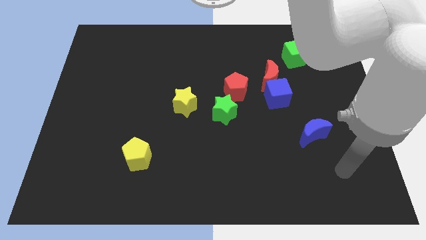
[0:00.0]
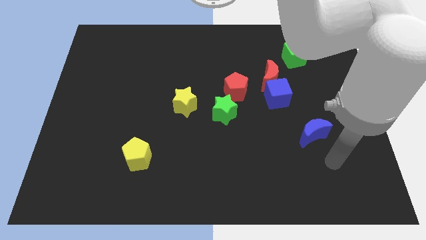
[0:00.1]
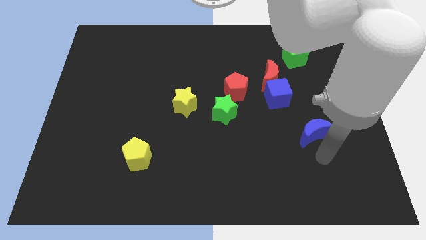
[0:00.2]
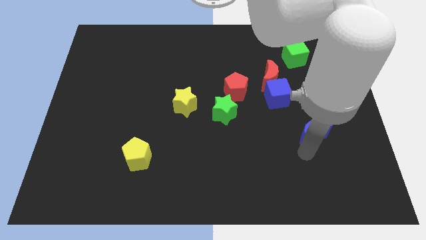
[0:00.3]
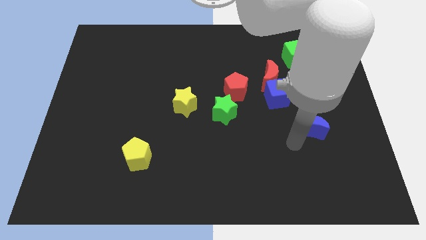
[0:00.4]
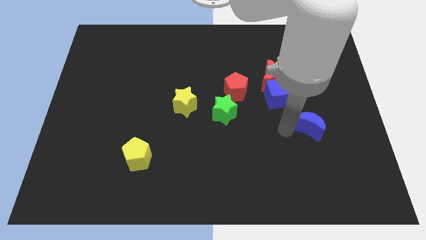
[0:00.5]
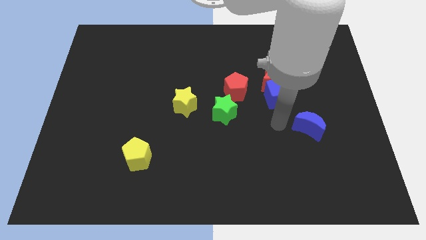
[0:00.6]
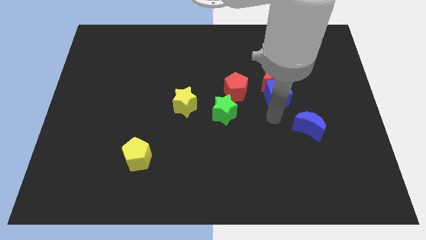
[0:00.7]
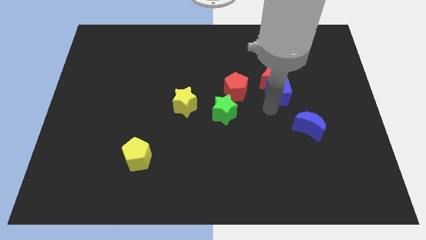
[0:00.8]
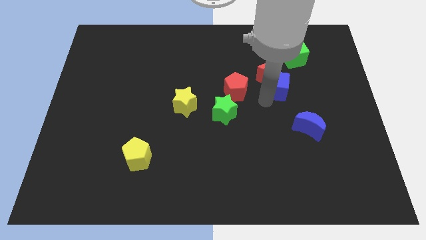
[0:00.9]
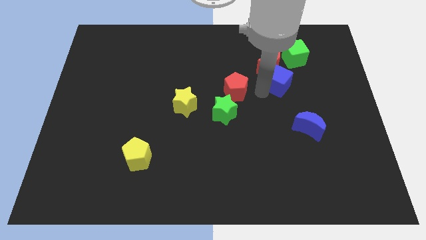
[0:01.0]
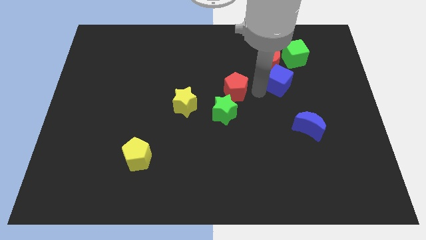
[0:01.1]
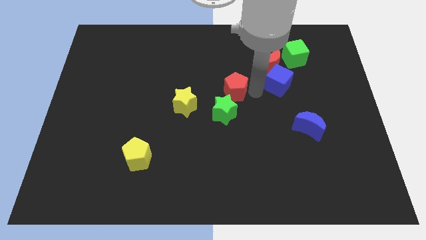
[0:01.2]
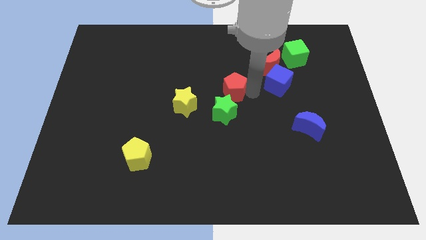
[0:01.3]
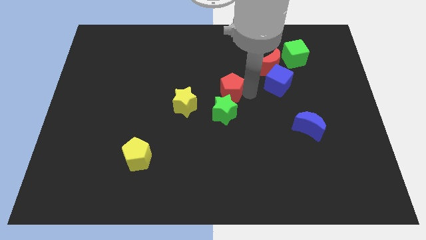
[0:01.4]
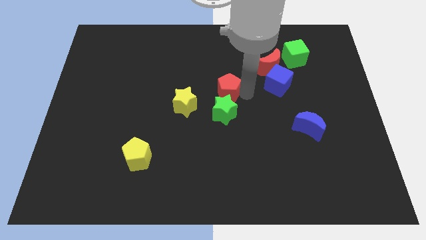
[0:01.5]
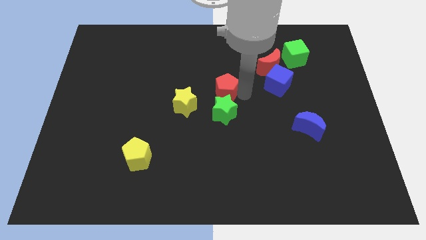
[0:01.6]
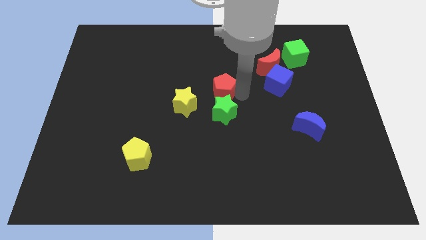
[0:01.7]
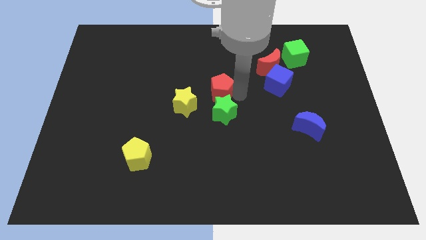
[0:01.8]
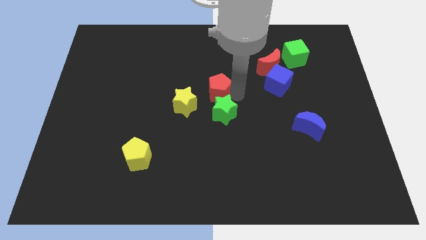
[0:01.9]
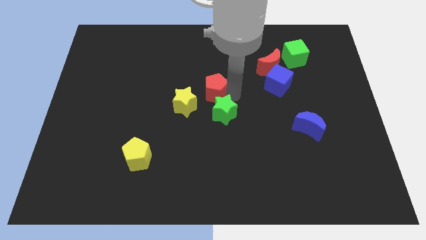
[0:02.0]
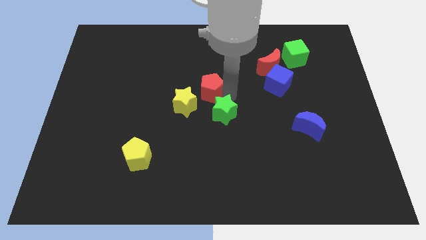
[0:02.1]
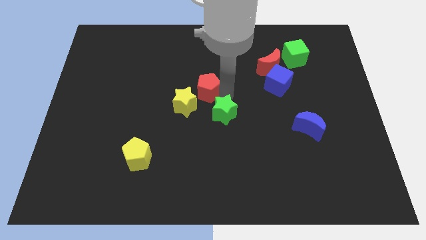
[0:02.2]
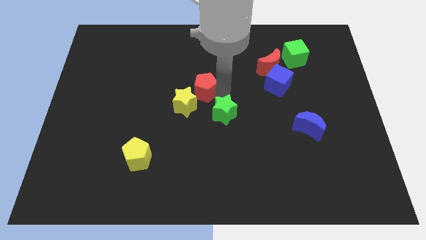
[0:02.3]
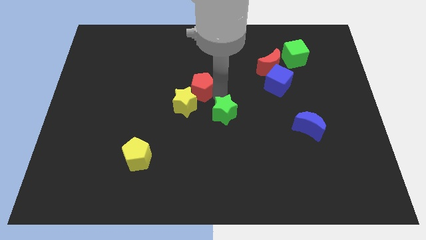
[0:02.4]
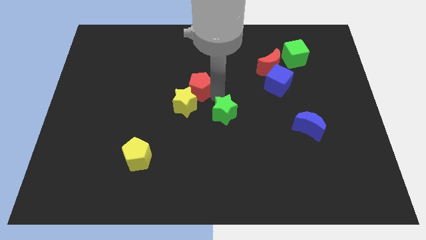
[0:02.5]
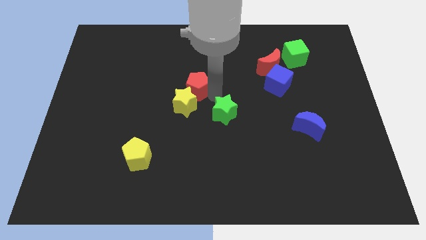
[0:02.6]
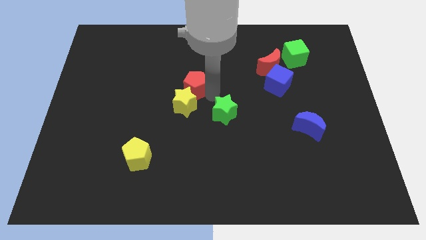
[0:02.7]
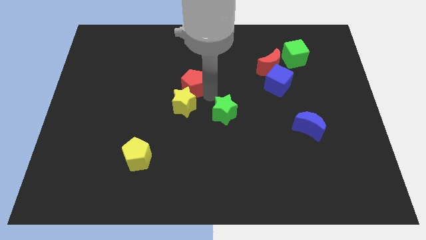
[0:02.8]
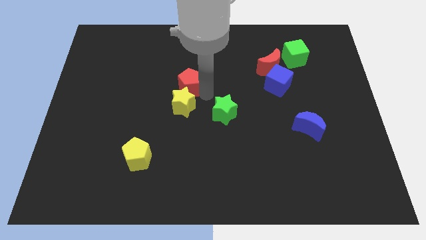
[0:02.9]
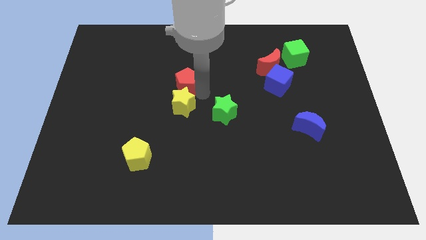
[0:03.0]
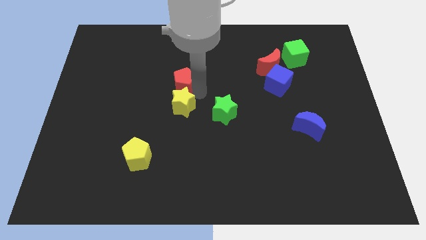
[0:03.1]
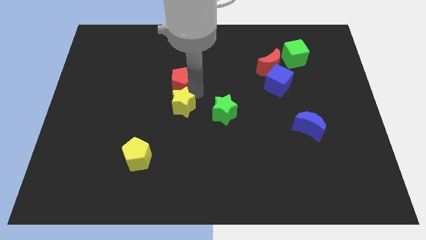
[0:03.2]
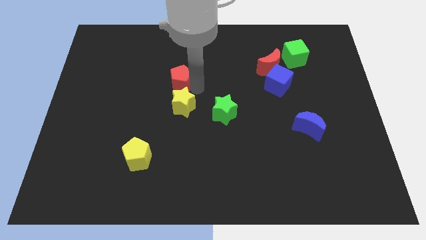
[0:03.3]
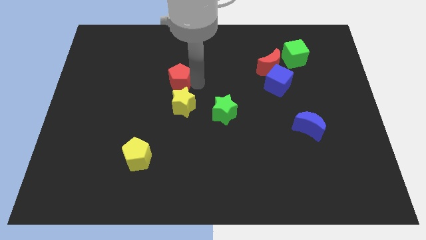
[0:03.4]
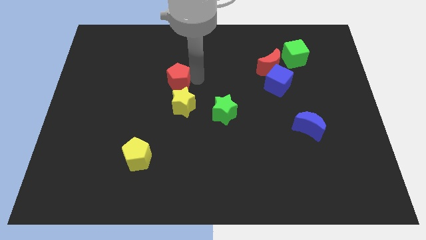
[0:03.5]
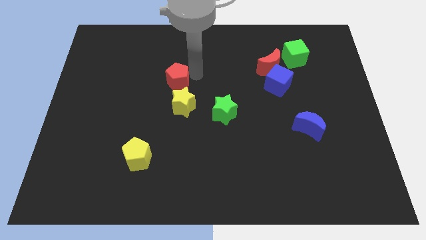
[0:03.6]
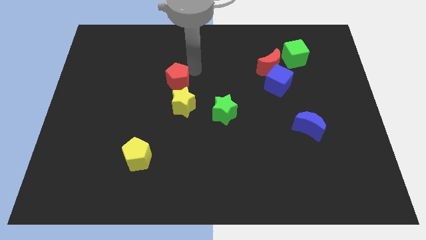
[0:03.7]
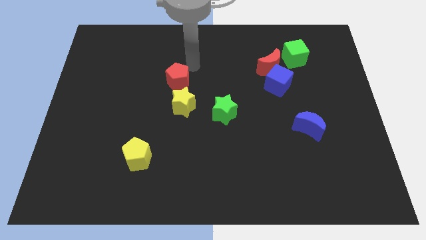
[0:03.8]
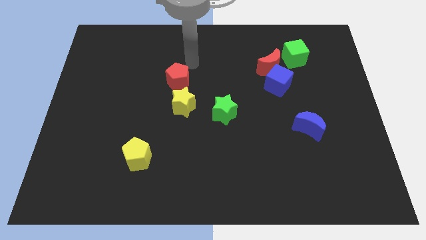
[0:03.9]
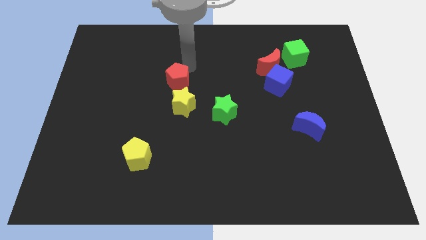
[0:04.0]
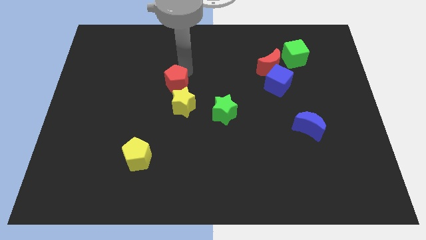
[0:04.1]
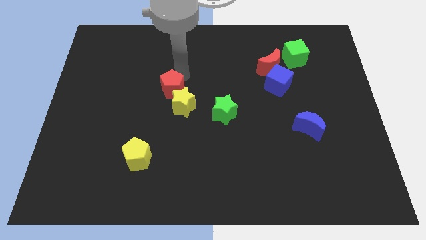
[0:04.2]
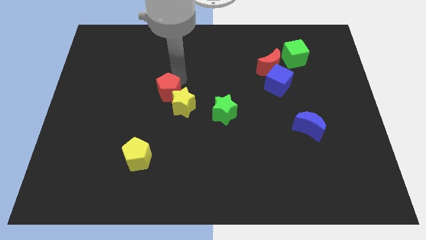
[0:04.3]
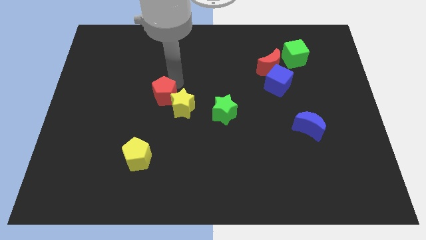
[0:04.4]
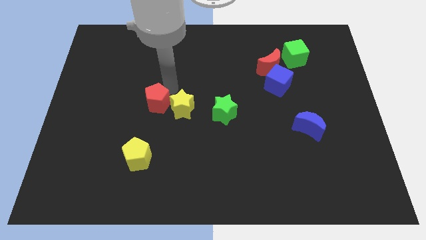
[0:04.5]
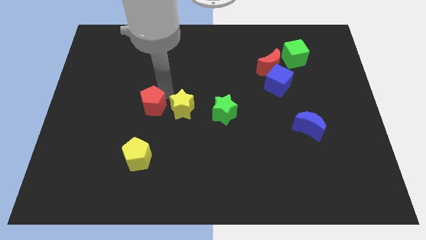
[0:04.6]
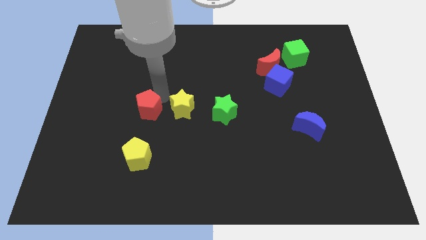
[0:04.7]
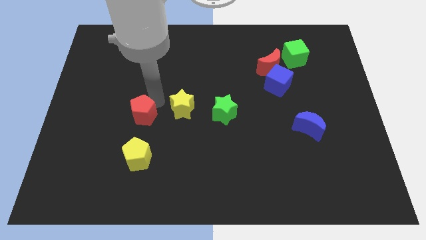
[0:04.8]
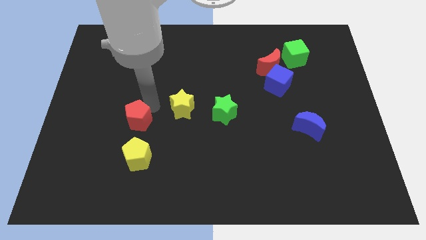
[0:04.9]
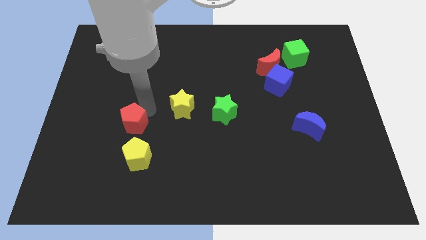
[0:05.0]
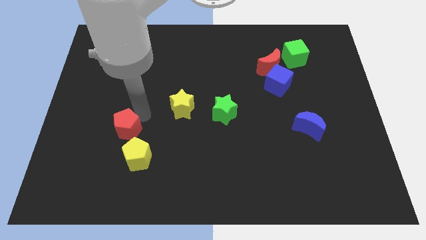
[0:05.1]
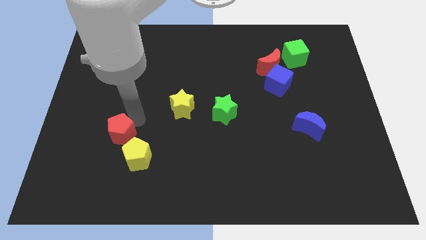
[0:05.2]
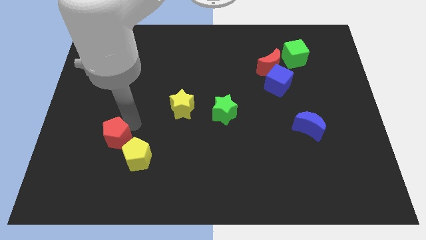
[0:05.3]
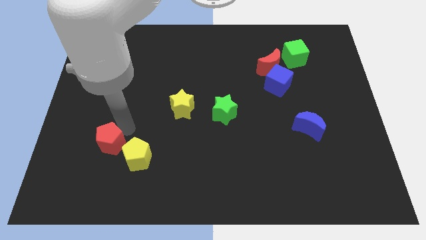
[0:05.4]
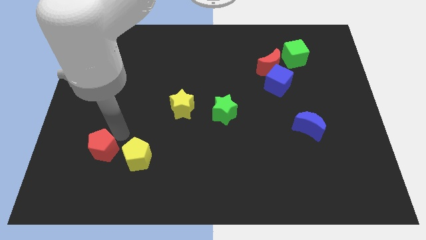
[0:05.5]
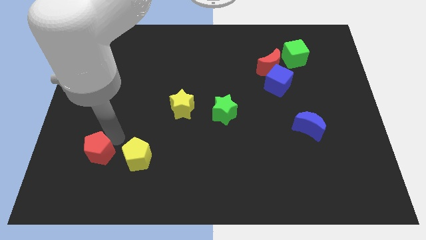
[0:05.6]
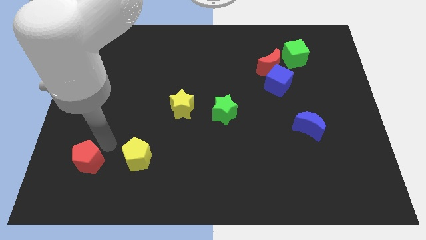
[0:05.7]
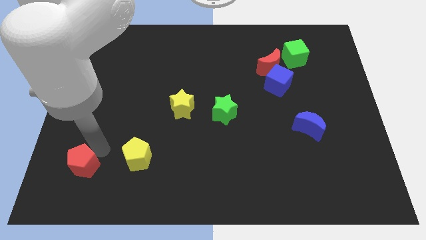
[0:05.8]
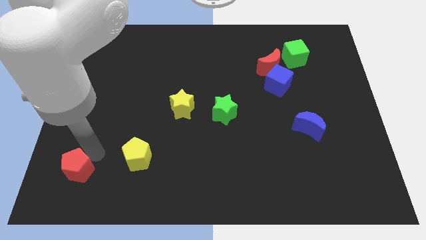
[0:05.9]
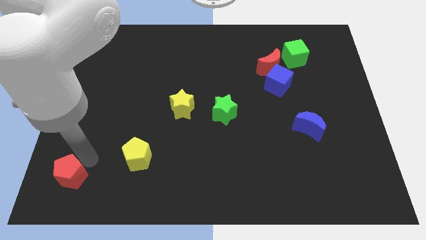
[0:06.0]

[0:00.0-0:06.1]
slide the red pentagon to the bottom left corner
